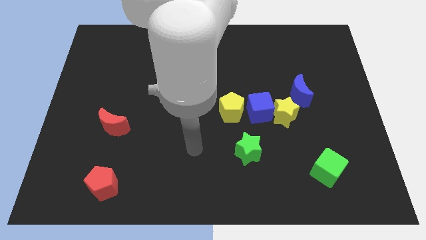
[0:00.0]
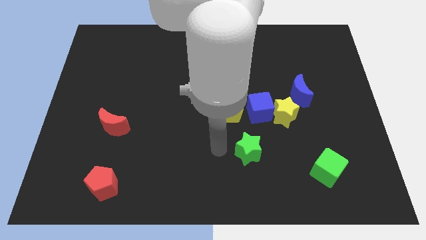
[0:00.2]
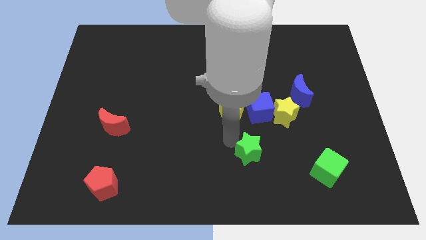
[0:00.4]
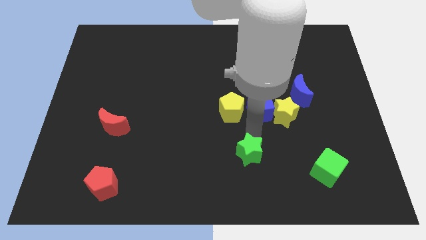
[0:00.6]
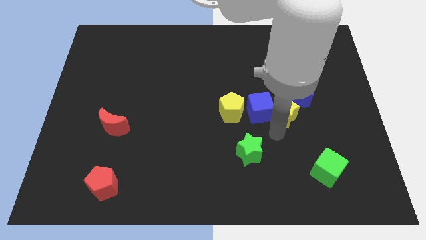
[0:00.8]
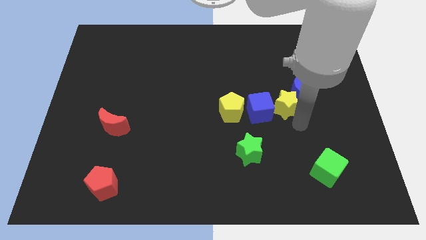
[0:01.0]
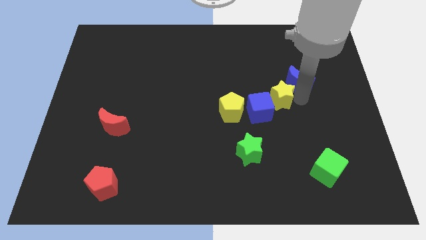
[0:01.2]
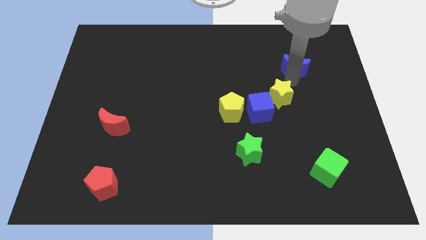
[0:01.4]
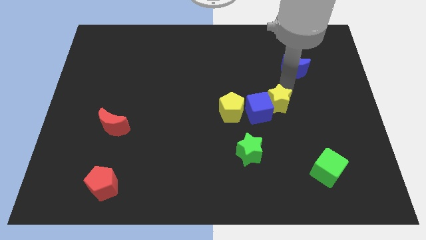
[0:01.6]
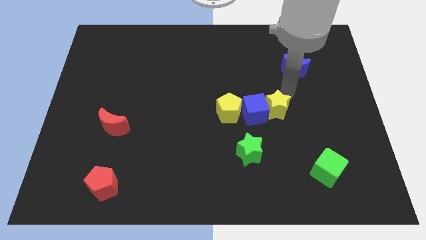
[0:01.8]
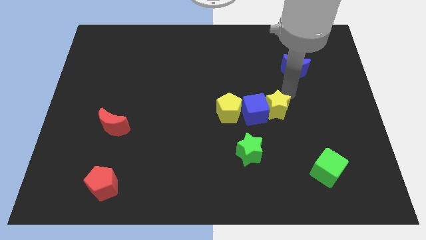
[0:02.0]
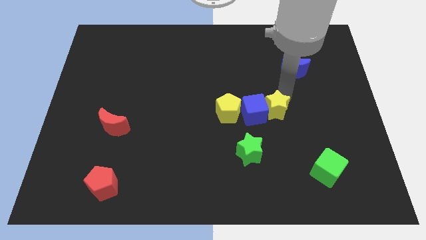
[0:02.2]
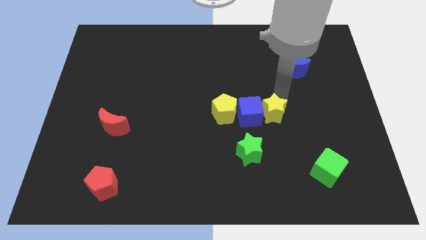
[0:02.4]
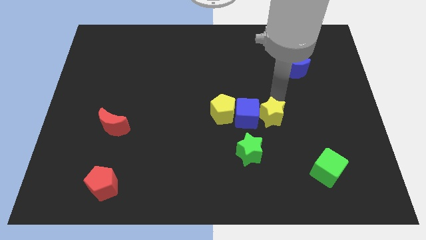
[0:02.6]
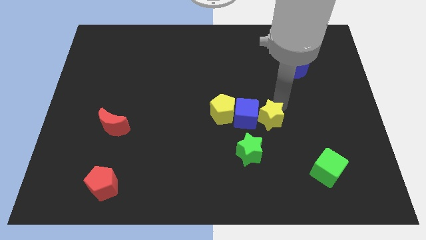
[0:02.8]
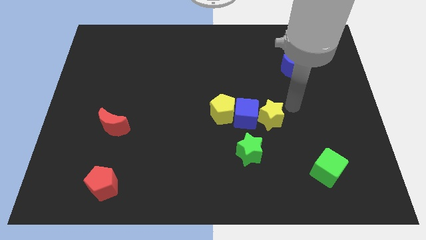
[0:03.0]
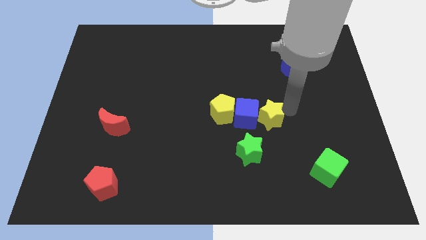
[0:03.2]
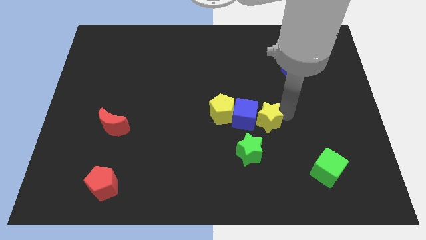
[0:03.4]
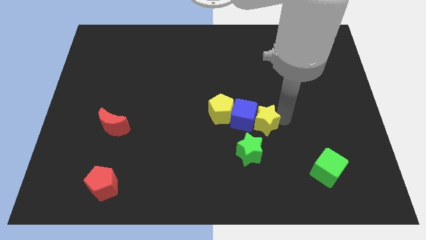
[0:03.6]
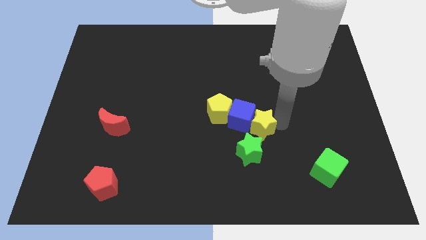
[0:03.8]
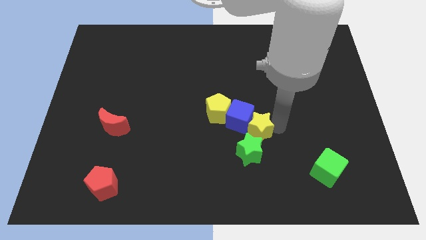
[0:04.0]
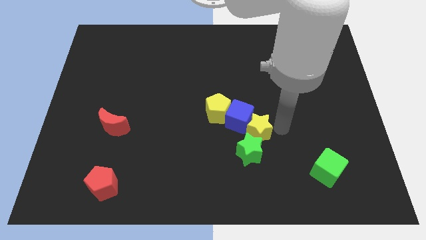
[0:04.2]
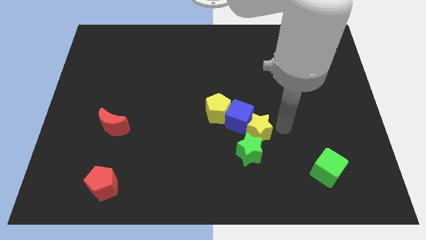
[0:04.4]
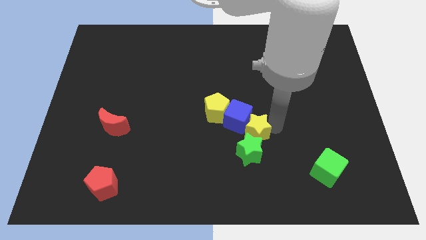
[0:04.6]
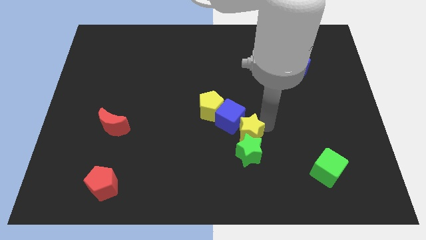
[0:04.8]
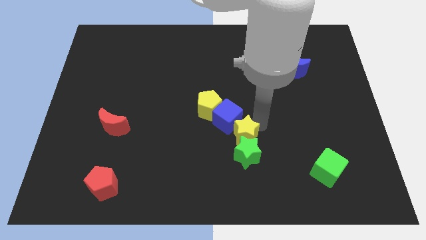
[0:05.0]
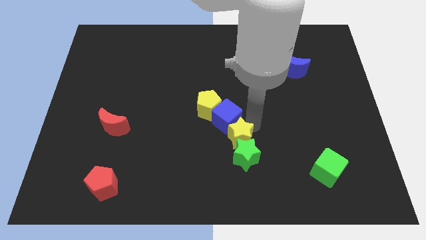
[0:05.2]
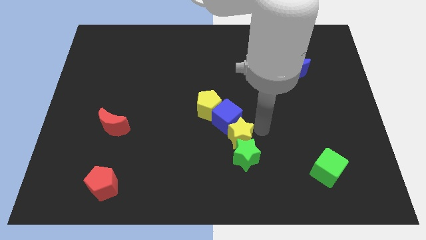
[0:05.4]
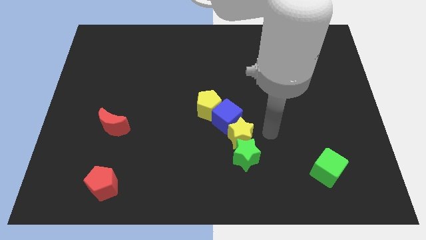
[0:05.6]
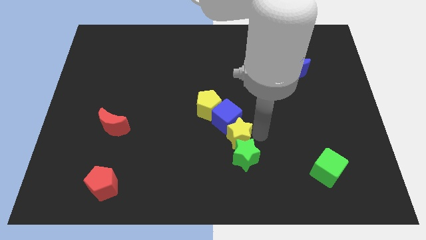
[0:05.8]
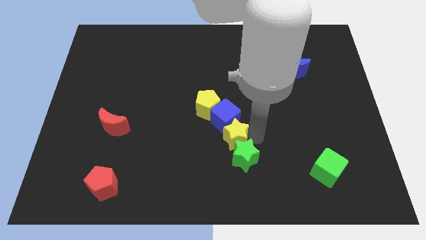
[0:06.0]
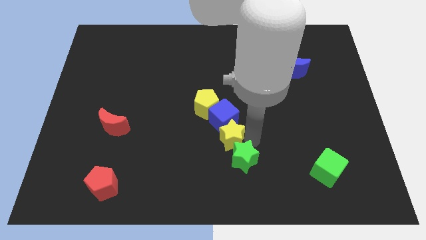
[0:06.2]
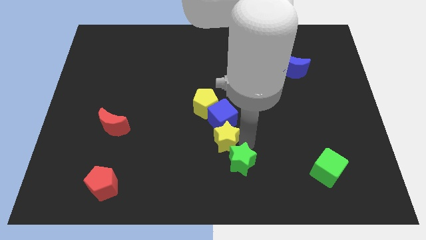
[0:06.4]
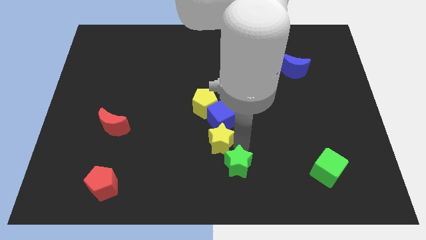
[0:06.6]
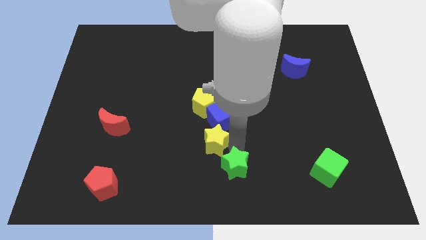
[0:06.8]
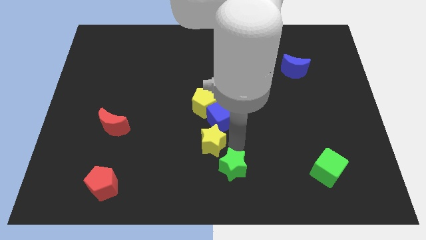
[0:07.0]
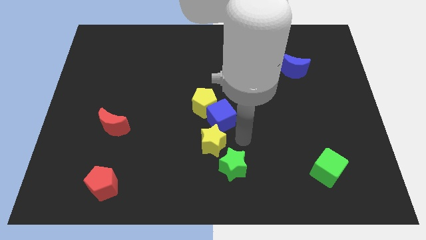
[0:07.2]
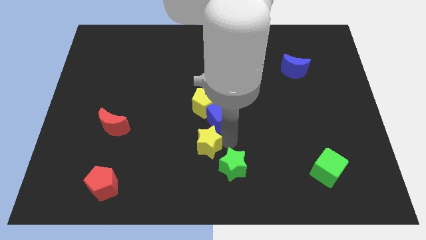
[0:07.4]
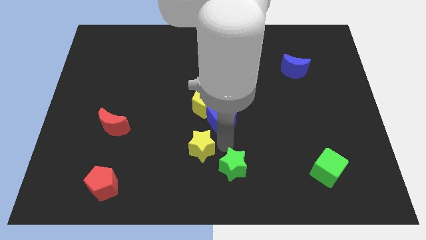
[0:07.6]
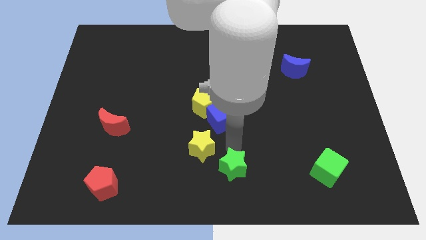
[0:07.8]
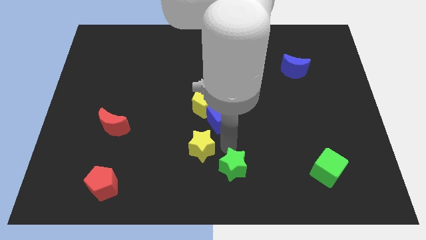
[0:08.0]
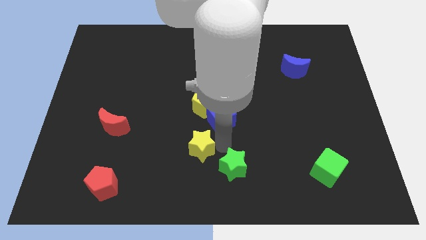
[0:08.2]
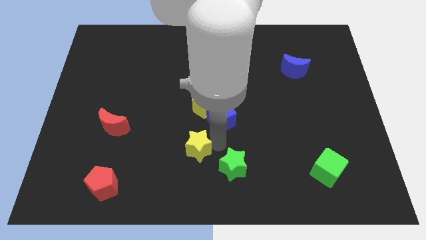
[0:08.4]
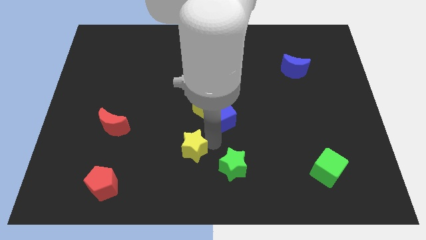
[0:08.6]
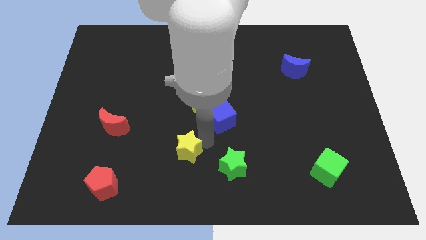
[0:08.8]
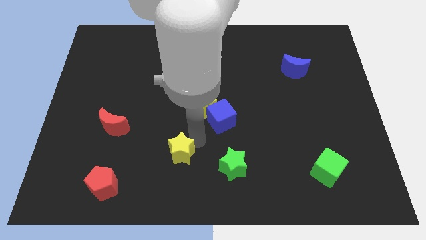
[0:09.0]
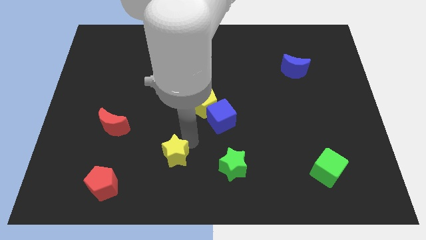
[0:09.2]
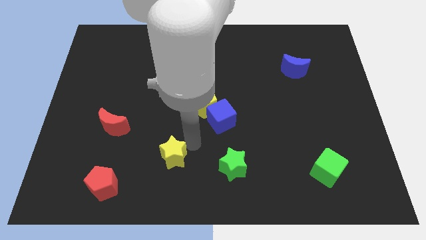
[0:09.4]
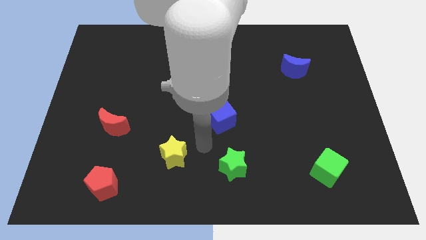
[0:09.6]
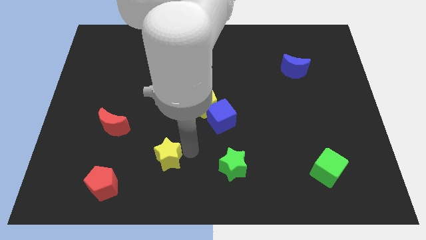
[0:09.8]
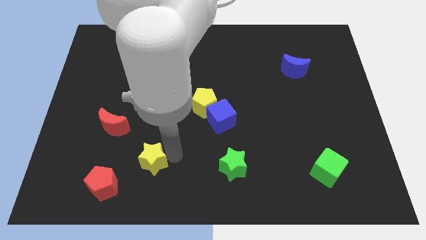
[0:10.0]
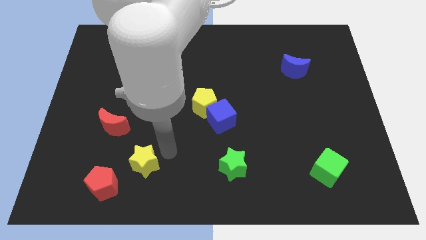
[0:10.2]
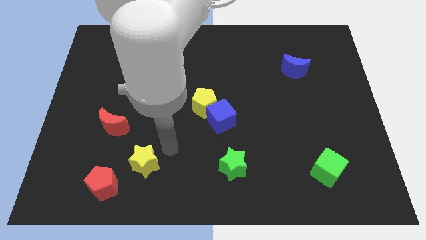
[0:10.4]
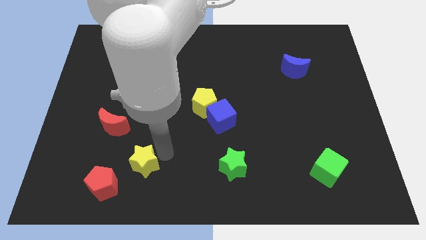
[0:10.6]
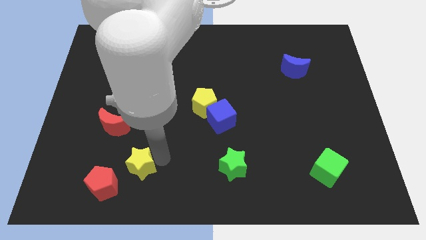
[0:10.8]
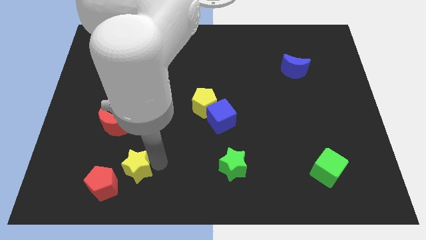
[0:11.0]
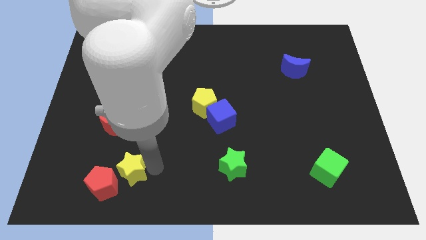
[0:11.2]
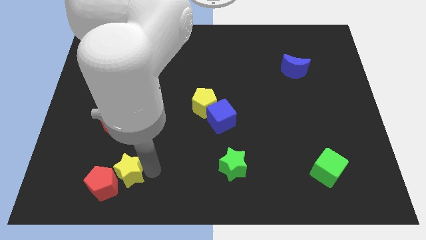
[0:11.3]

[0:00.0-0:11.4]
slide the yellow star towards the red pentagon

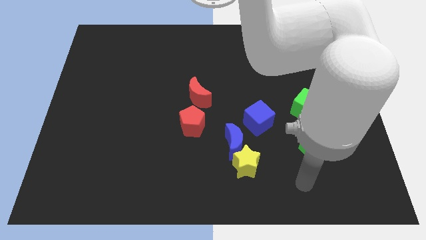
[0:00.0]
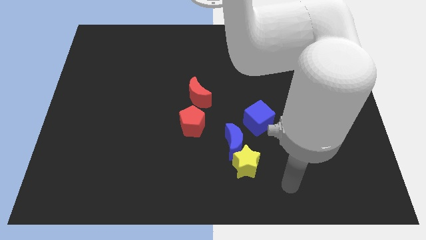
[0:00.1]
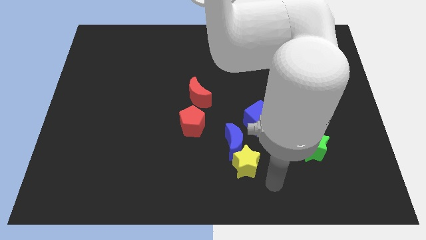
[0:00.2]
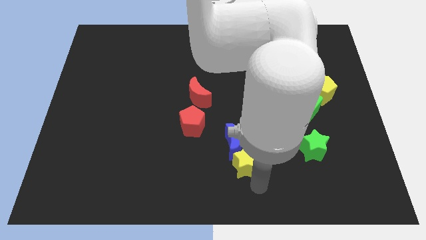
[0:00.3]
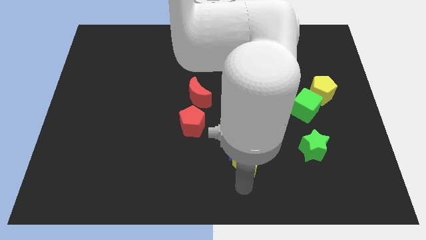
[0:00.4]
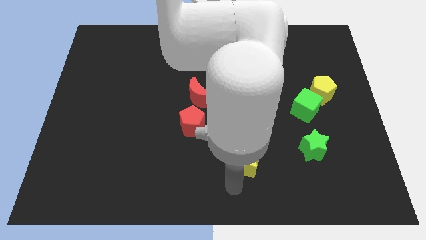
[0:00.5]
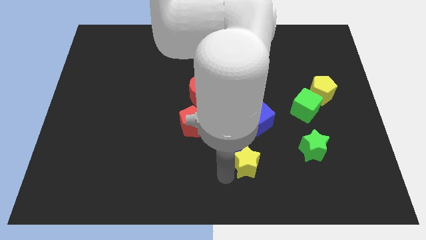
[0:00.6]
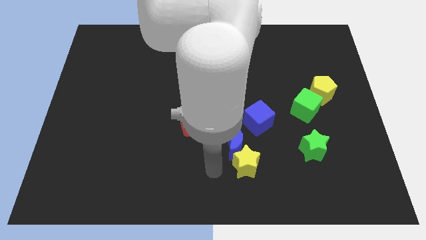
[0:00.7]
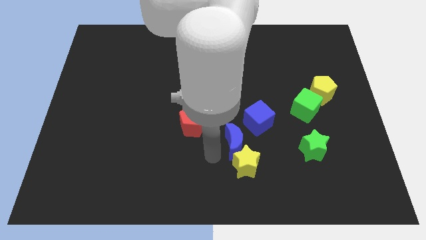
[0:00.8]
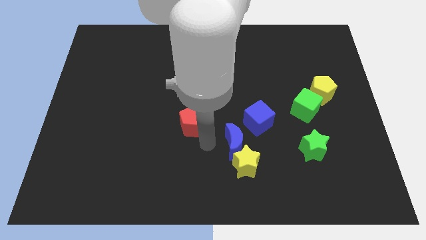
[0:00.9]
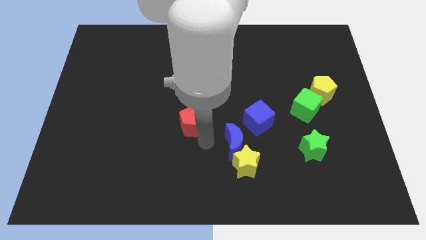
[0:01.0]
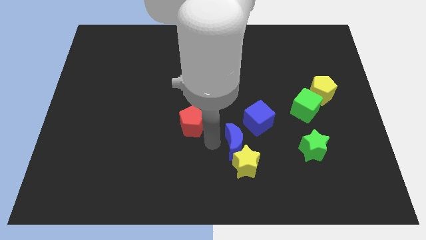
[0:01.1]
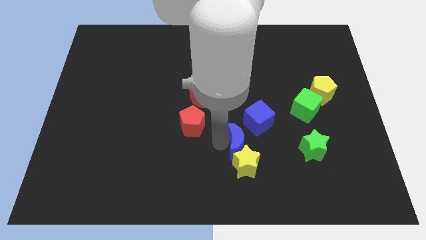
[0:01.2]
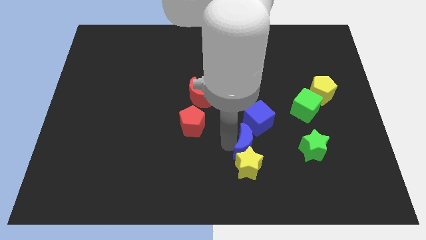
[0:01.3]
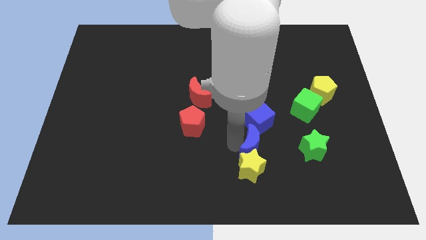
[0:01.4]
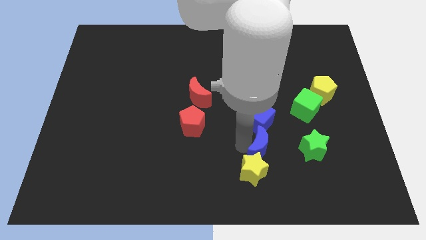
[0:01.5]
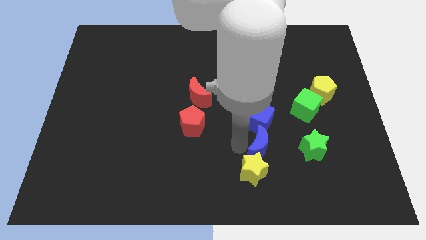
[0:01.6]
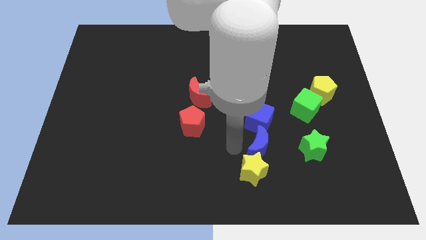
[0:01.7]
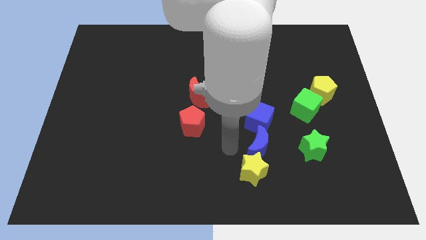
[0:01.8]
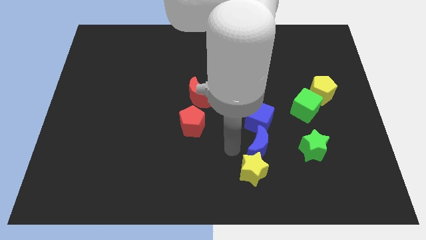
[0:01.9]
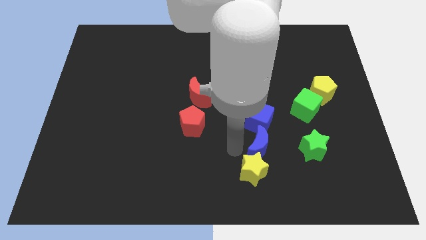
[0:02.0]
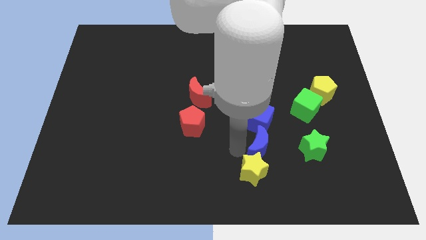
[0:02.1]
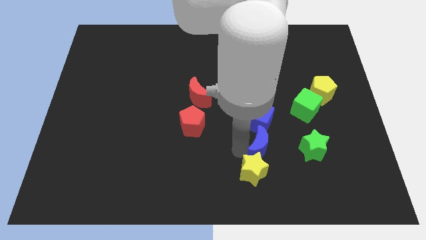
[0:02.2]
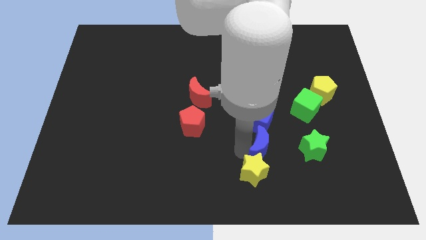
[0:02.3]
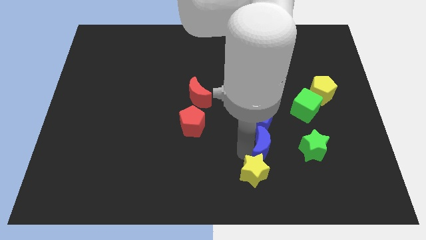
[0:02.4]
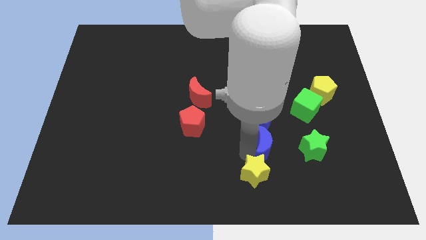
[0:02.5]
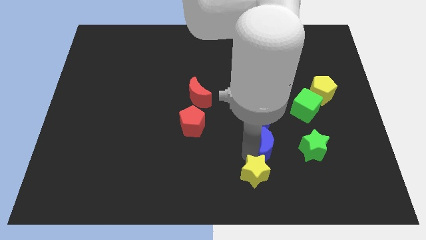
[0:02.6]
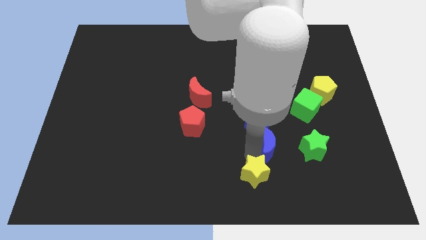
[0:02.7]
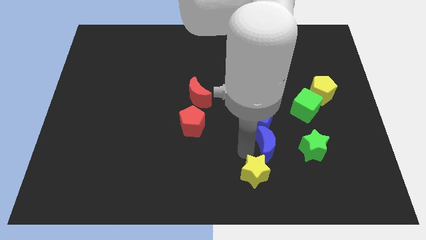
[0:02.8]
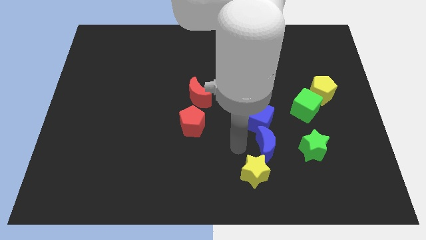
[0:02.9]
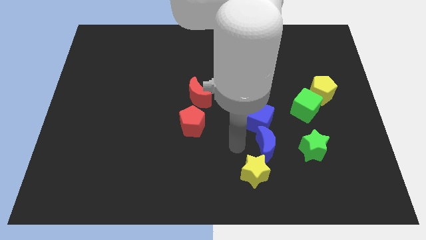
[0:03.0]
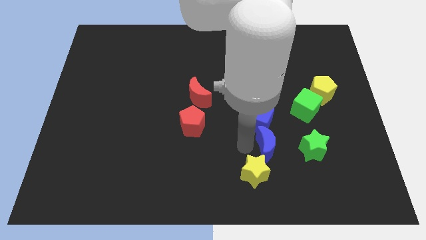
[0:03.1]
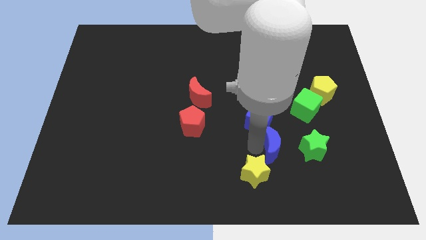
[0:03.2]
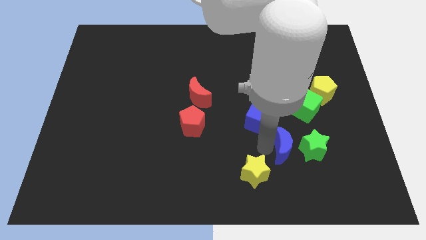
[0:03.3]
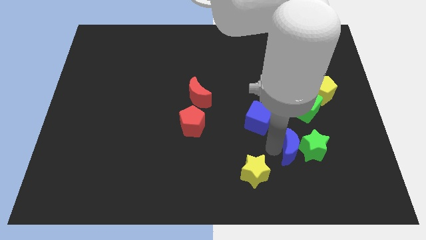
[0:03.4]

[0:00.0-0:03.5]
slide the blue moon next to the green star
